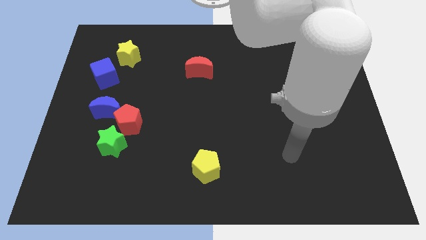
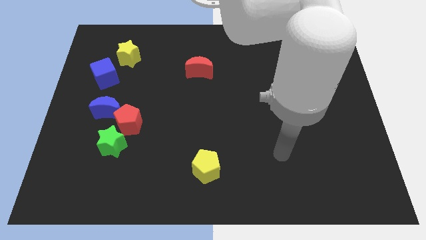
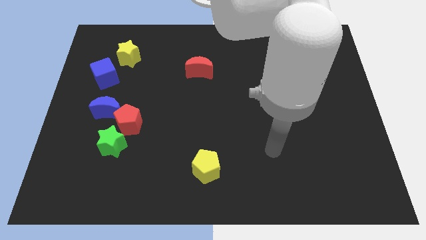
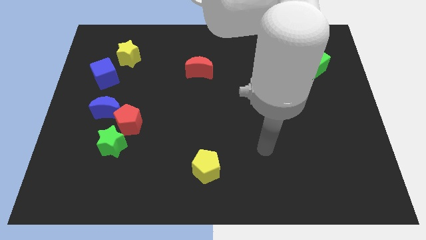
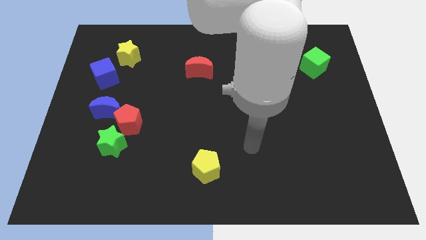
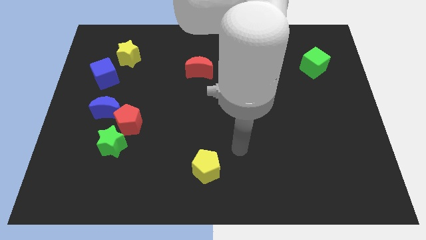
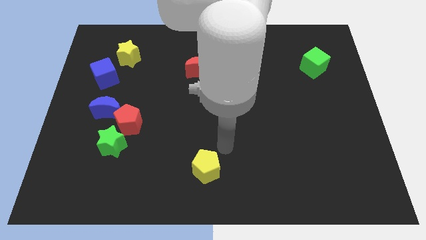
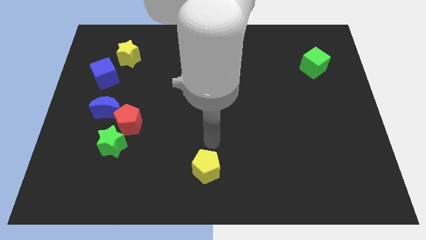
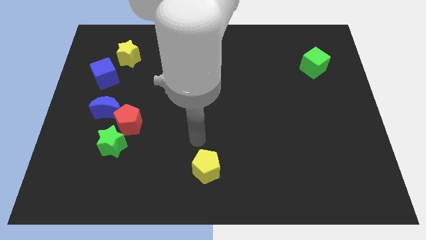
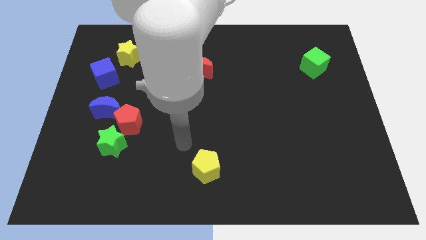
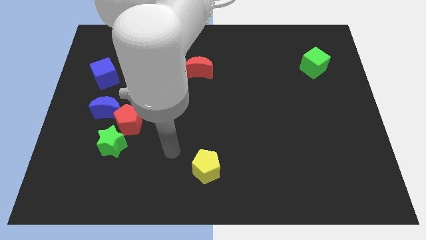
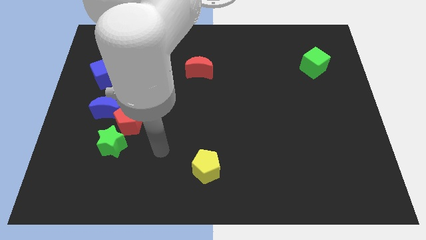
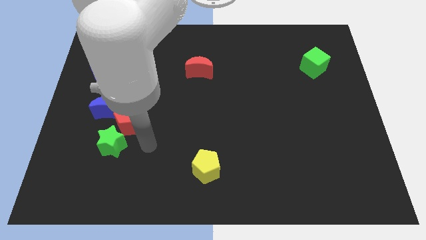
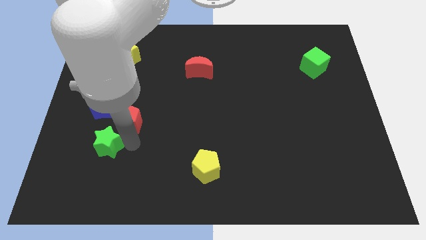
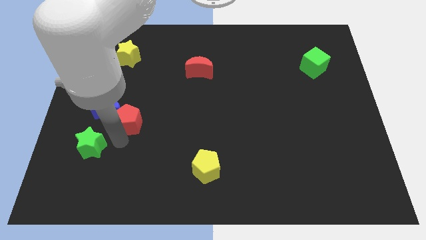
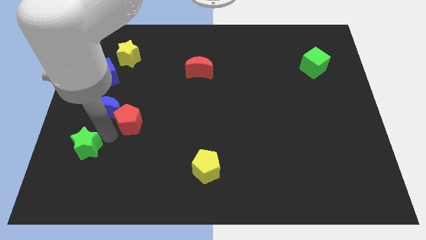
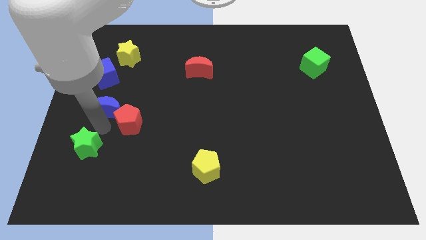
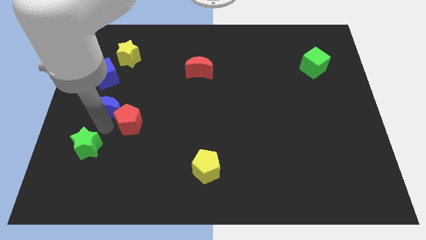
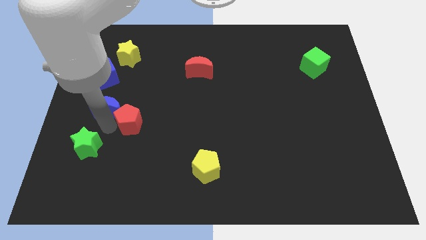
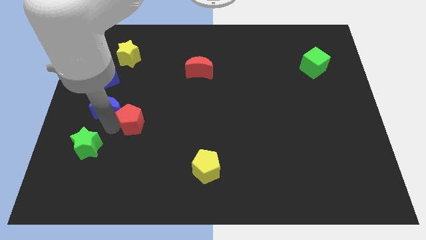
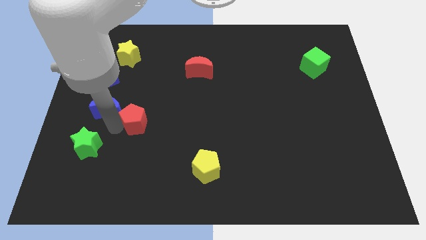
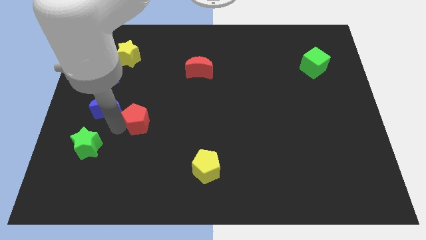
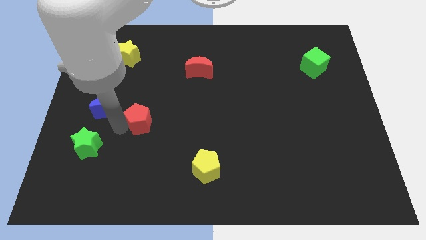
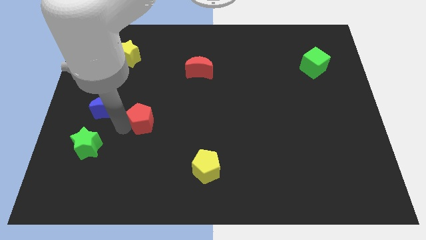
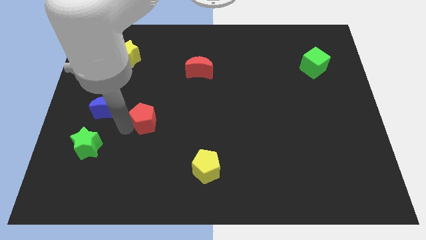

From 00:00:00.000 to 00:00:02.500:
separate the red pentagon from the blue moon and green star

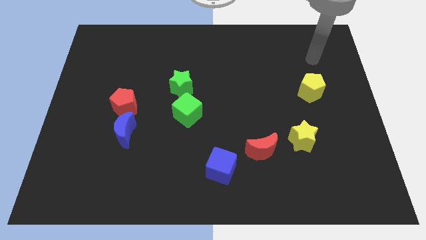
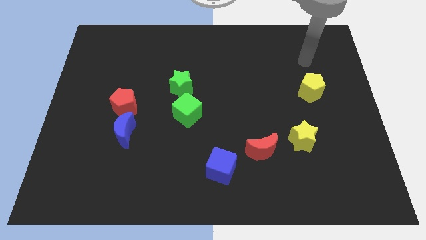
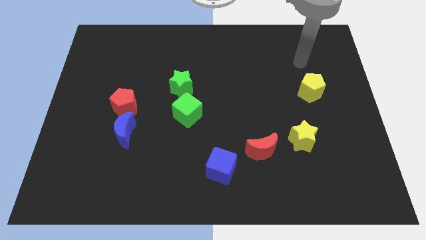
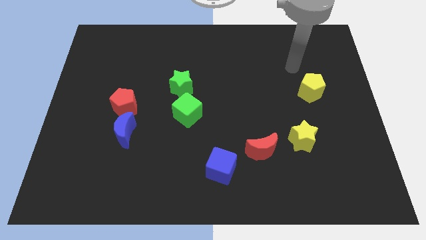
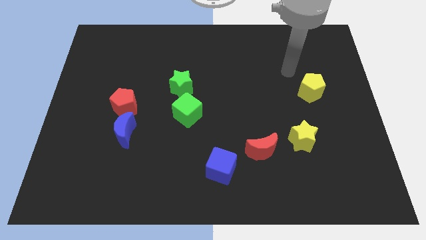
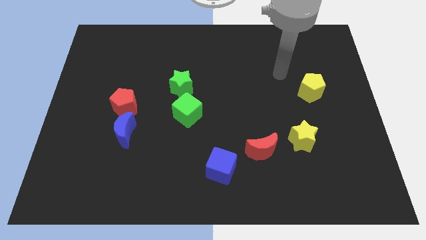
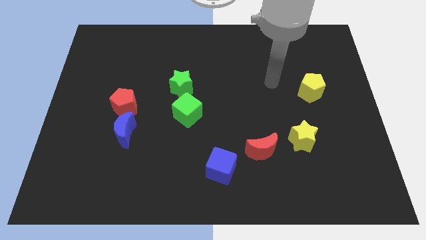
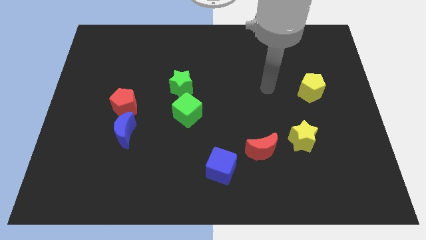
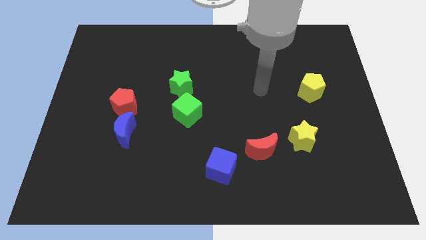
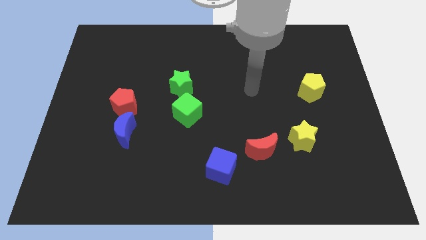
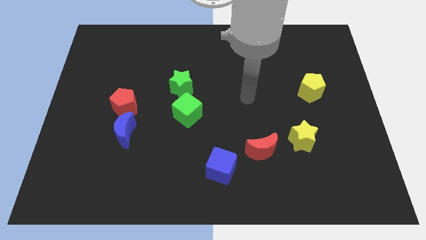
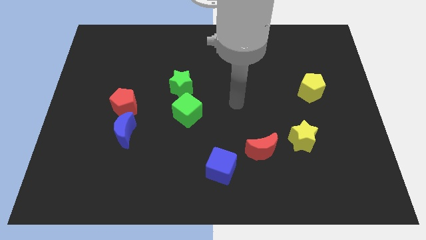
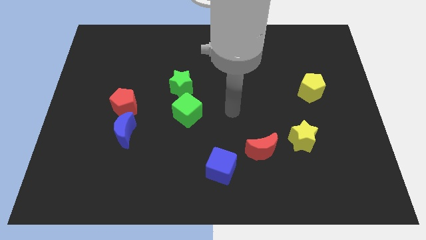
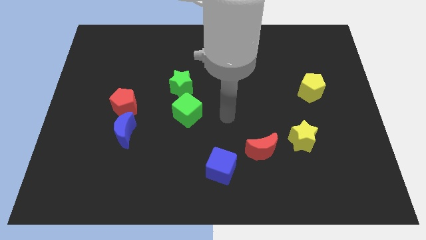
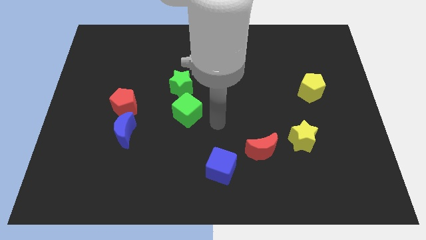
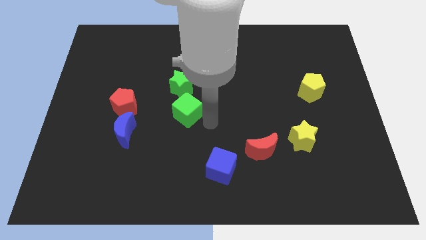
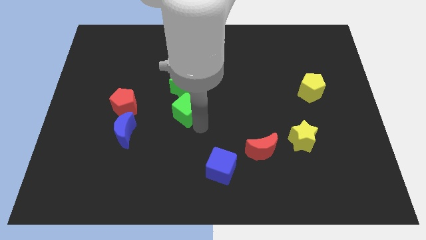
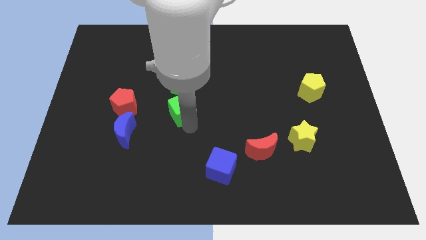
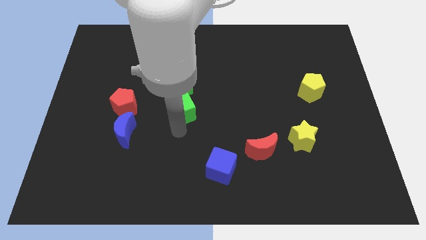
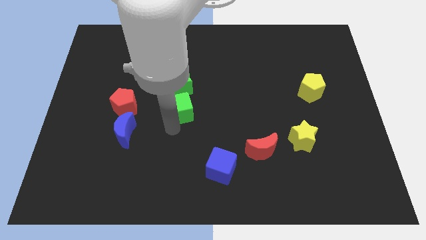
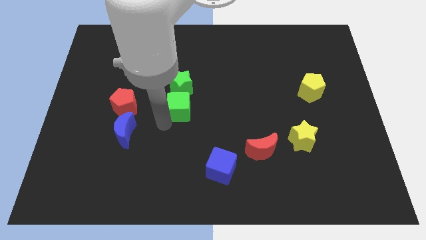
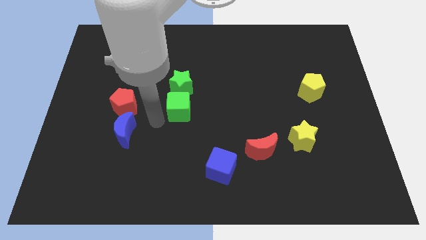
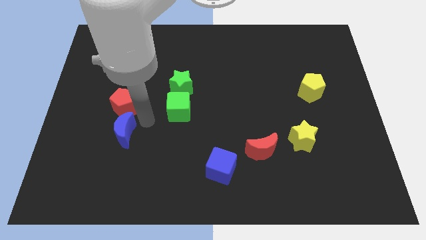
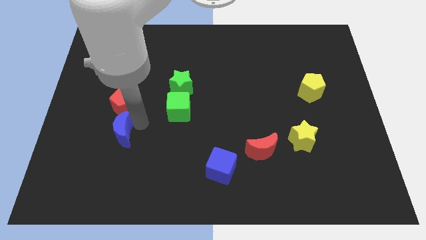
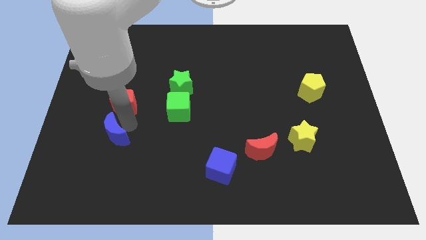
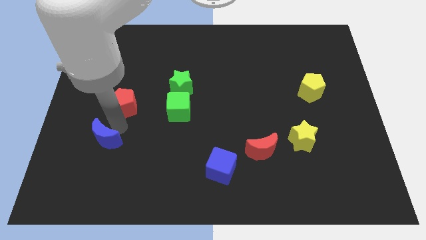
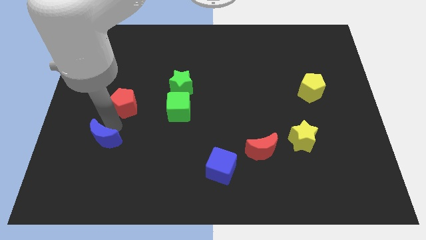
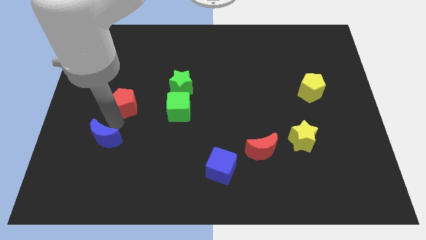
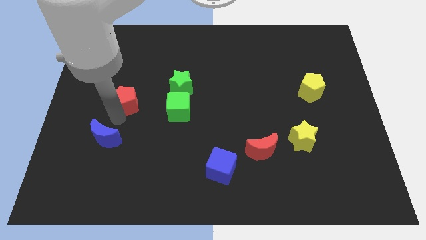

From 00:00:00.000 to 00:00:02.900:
separate the red pentagon from the blue moon

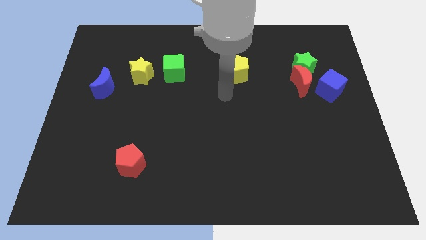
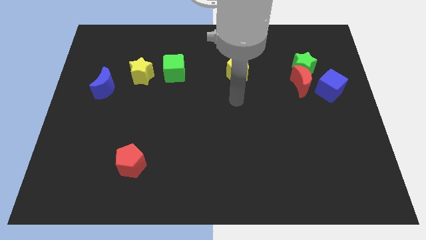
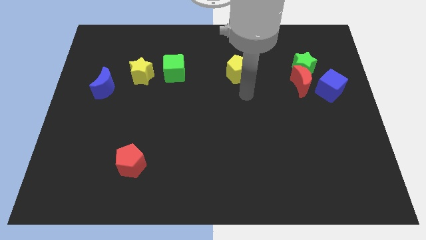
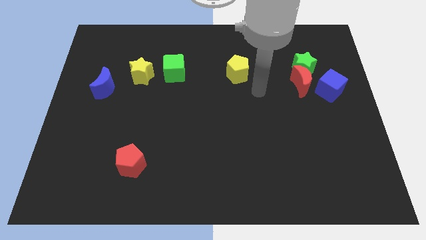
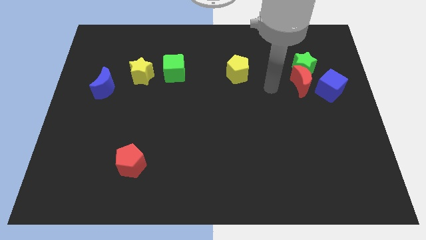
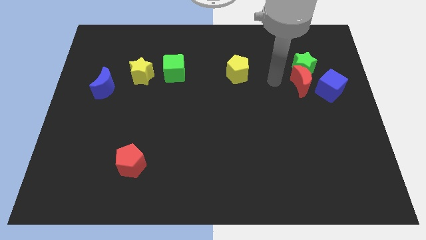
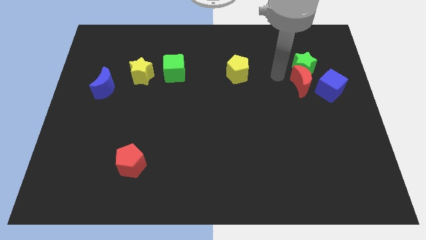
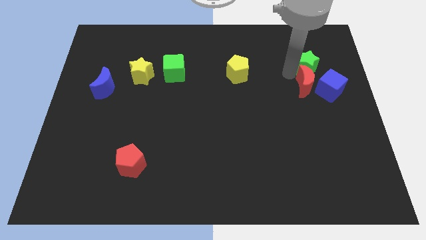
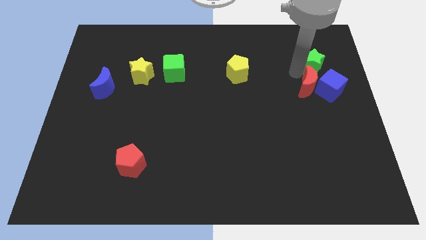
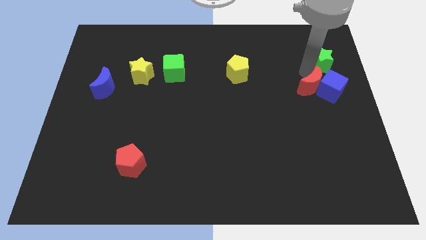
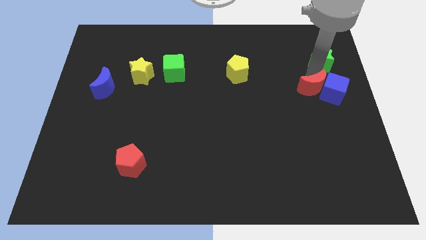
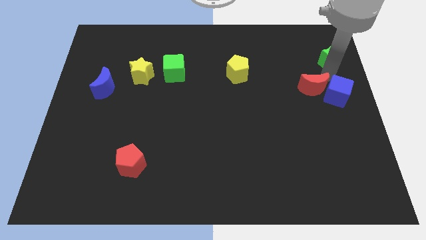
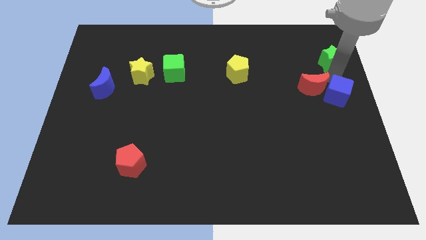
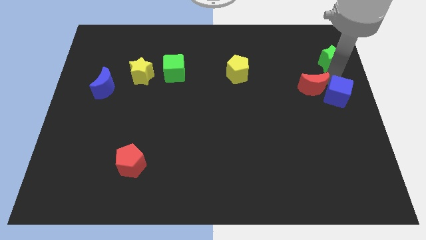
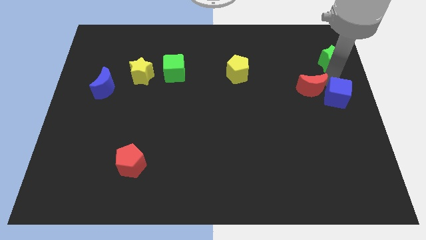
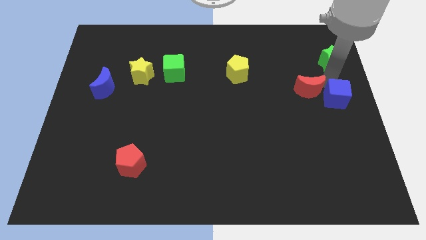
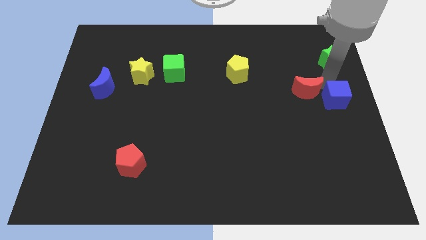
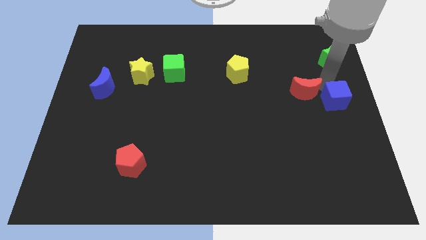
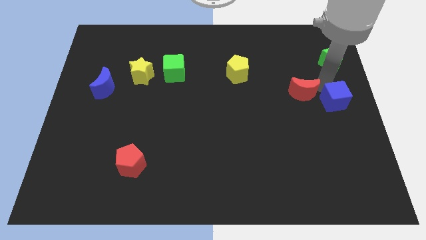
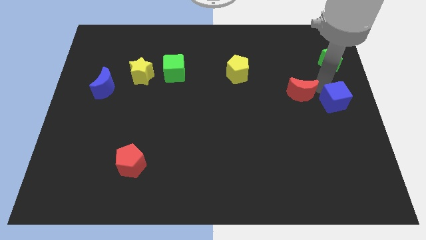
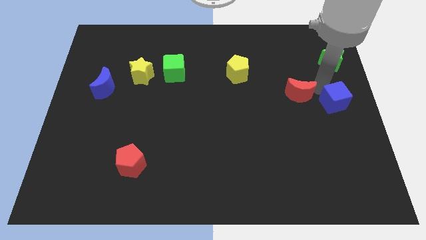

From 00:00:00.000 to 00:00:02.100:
pull the red moon apart from the green star and blue cube

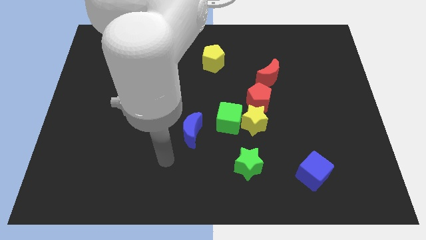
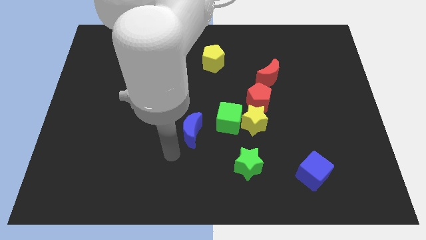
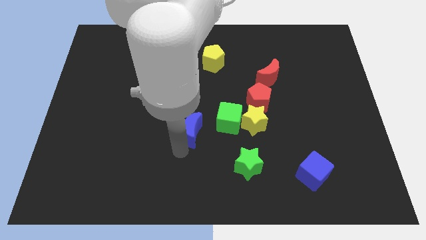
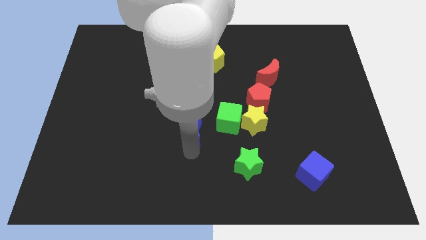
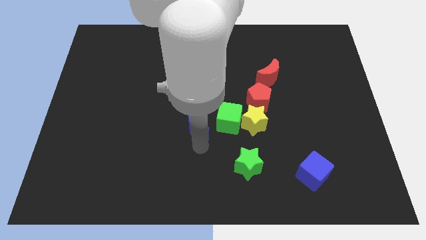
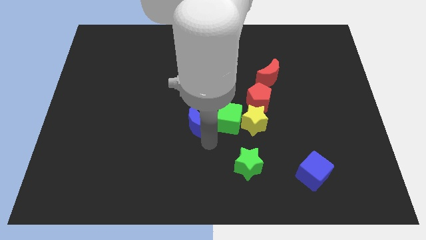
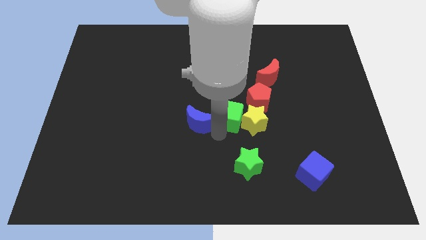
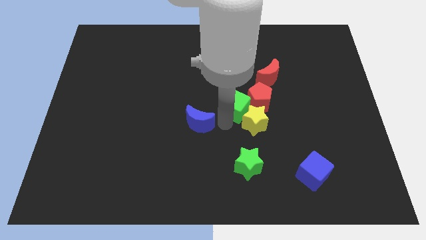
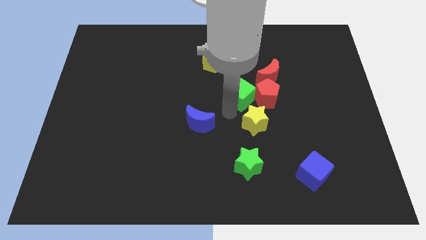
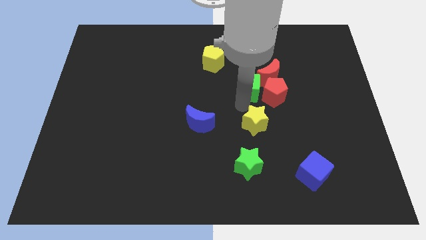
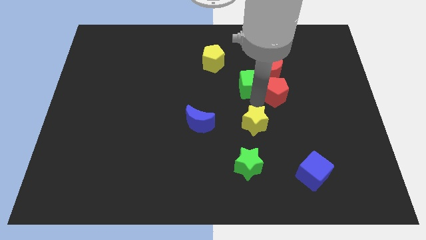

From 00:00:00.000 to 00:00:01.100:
pull the yellow star apart from the green cube and red pentagon

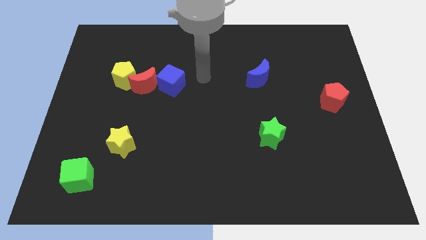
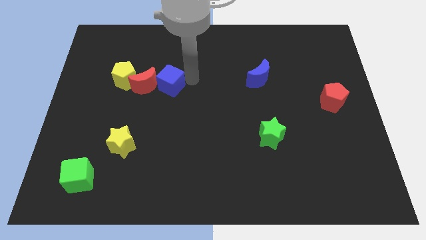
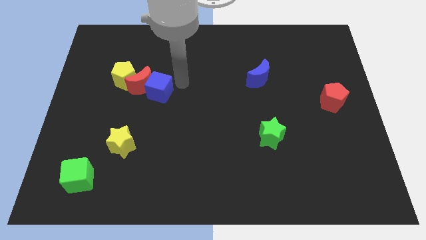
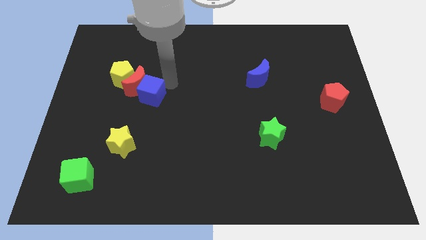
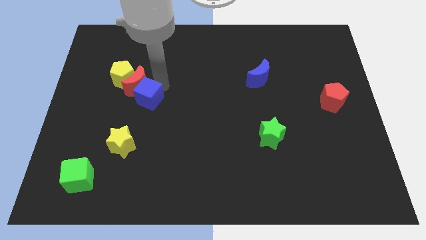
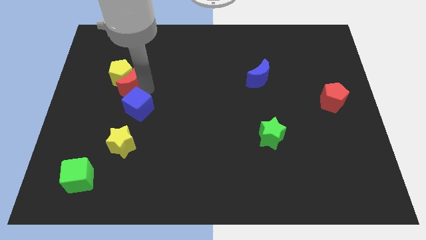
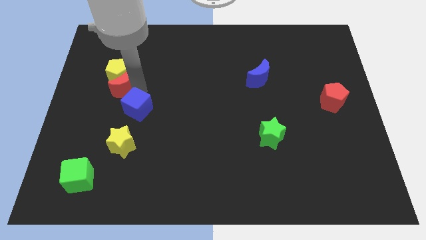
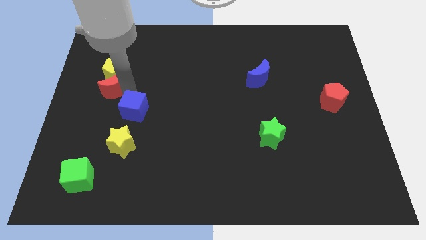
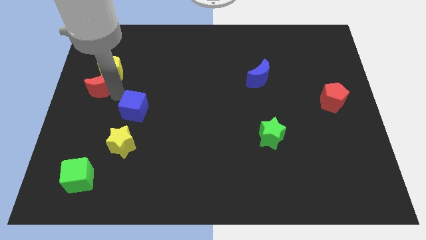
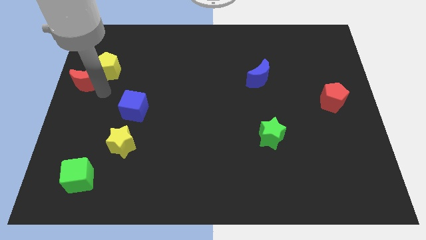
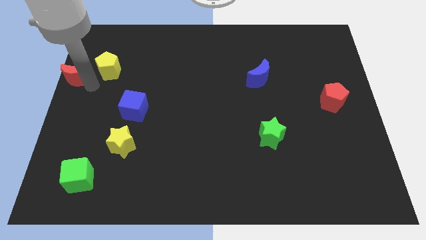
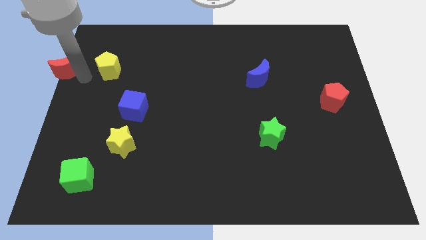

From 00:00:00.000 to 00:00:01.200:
pull the yellow pentagon apart from the red moon
